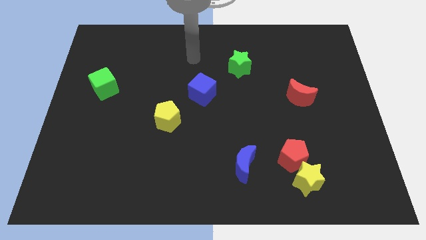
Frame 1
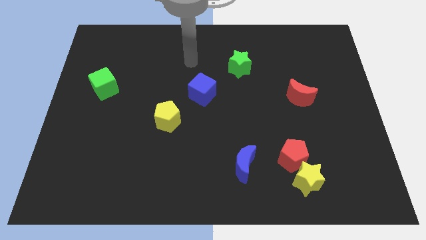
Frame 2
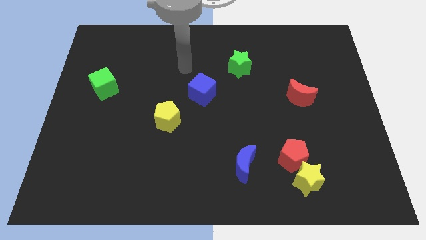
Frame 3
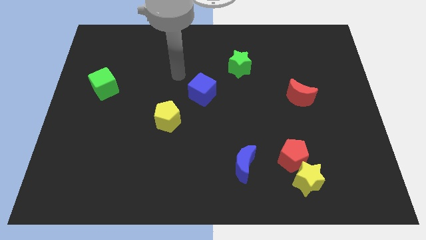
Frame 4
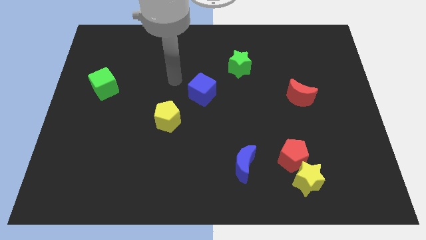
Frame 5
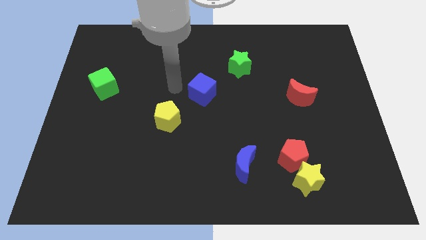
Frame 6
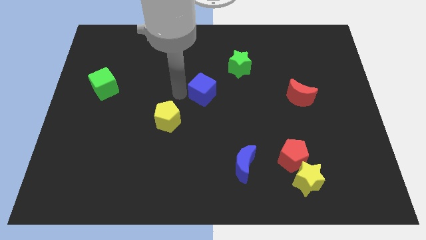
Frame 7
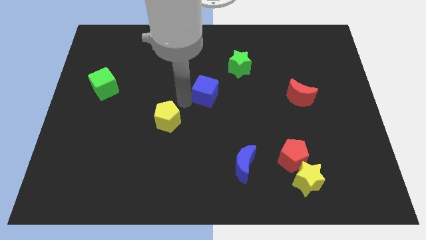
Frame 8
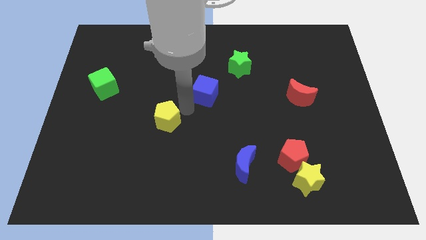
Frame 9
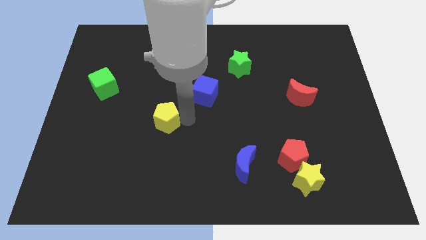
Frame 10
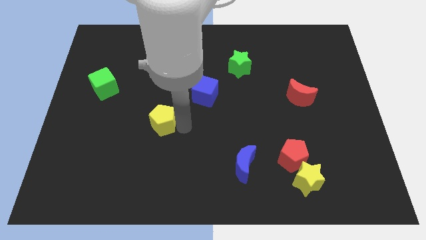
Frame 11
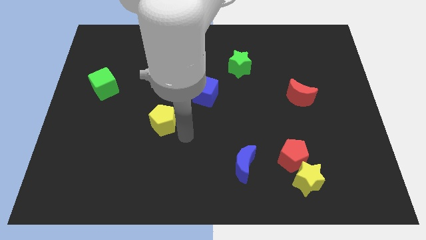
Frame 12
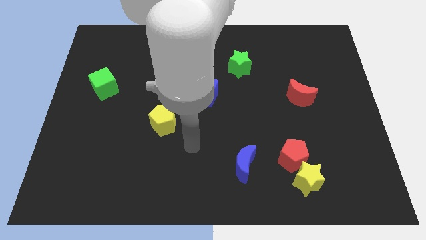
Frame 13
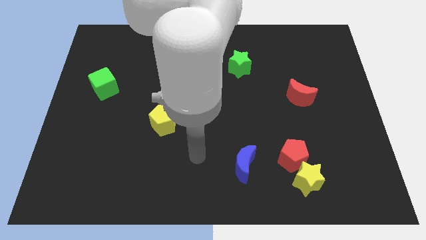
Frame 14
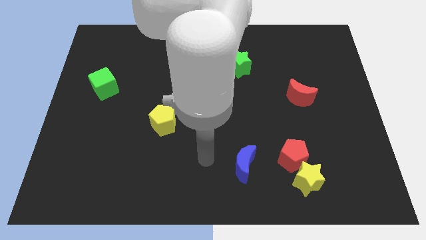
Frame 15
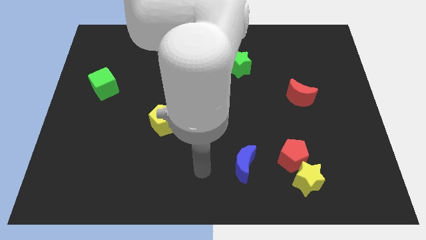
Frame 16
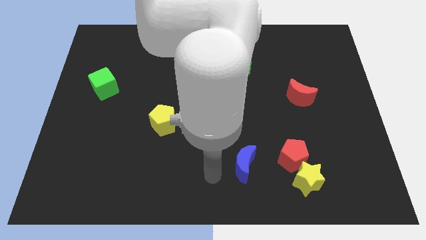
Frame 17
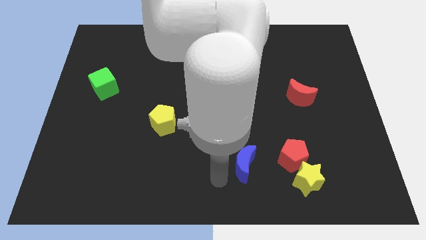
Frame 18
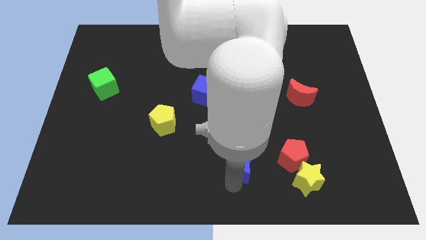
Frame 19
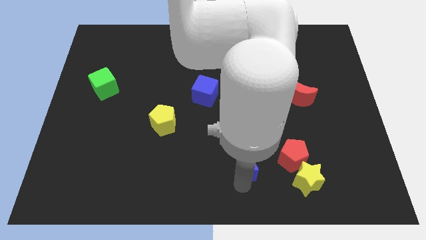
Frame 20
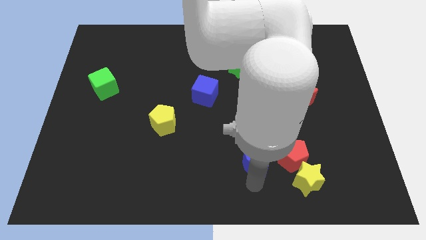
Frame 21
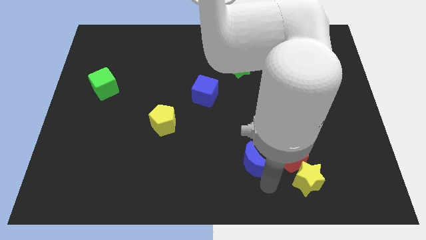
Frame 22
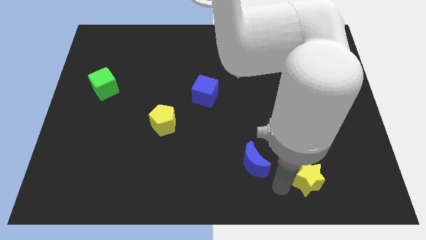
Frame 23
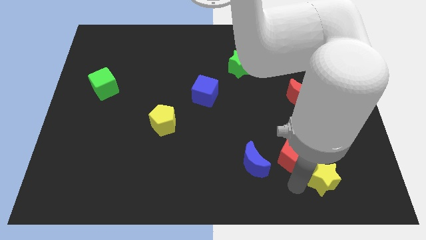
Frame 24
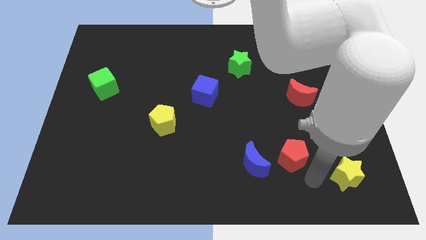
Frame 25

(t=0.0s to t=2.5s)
move the red pentagon away from the yellow star

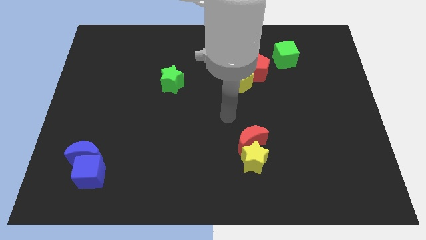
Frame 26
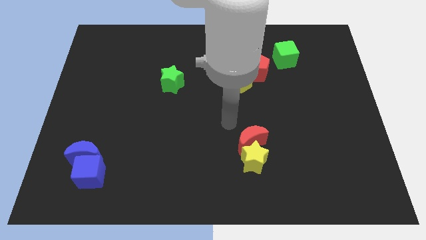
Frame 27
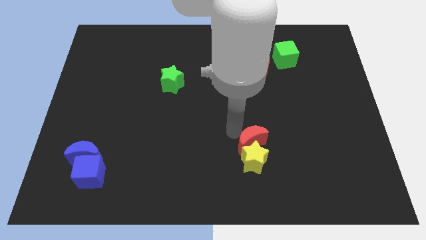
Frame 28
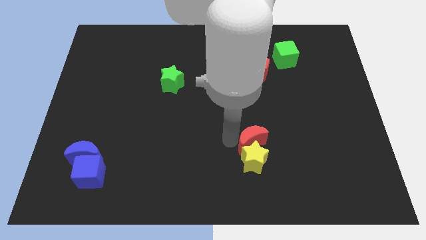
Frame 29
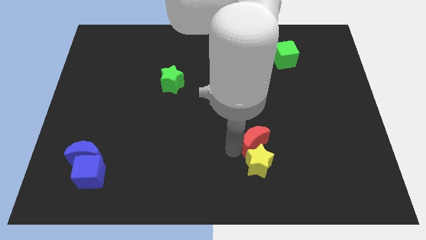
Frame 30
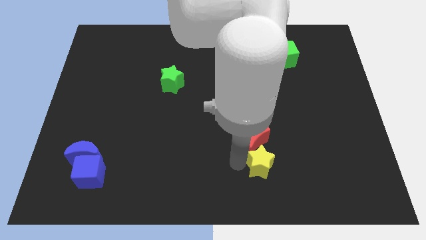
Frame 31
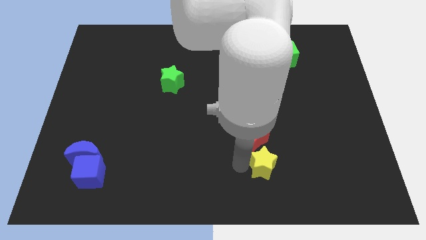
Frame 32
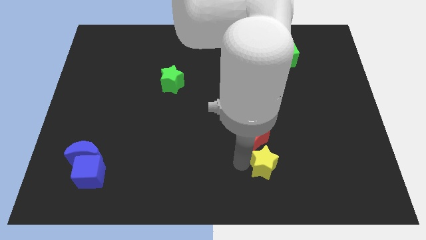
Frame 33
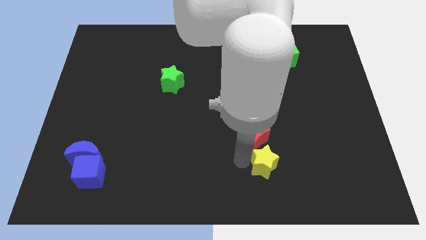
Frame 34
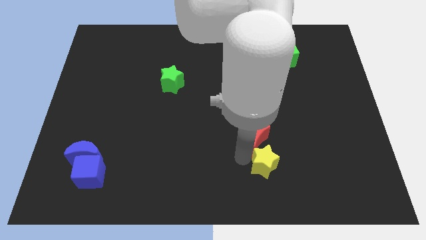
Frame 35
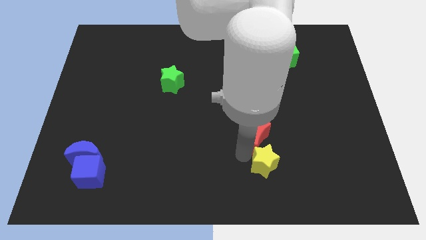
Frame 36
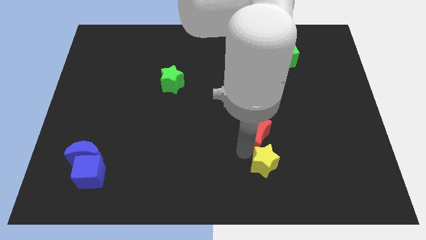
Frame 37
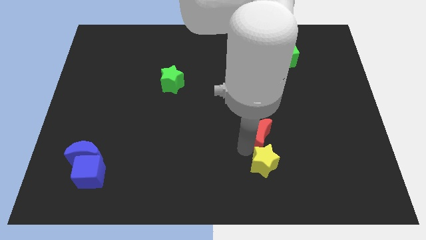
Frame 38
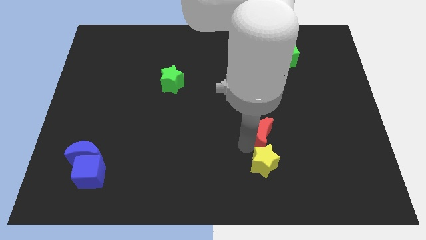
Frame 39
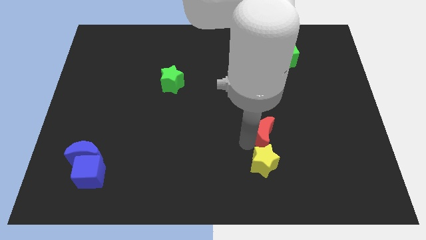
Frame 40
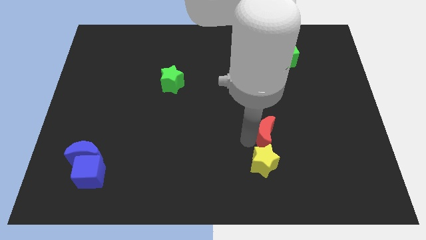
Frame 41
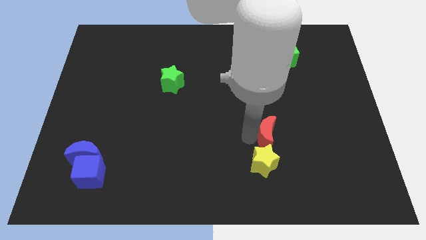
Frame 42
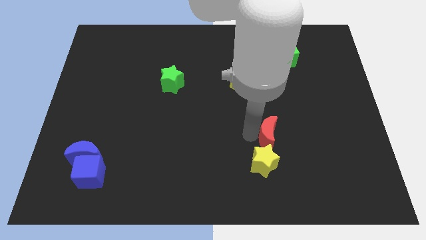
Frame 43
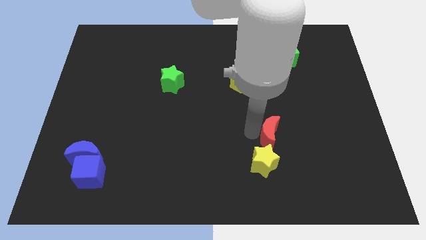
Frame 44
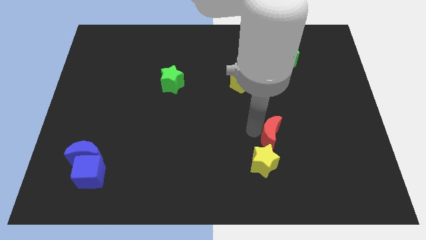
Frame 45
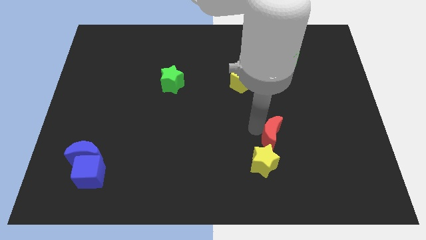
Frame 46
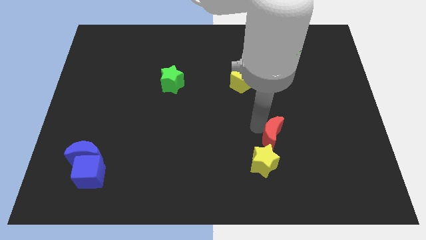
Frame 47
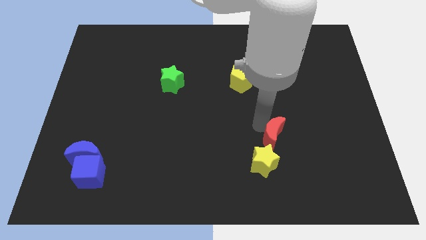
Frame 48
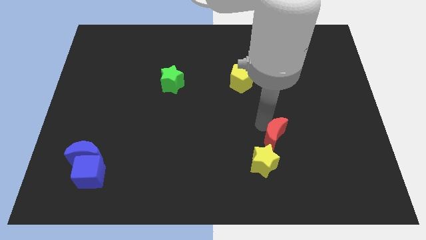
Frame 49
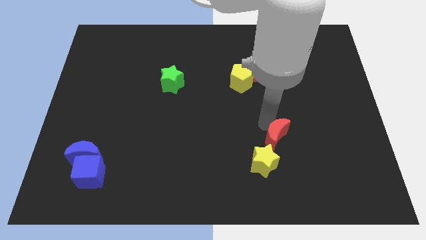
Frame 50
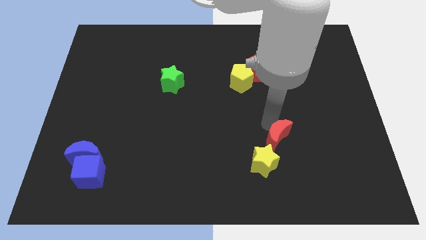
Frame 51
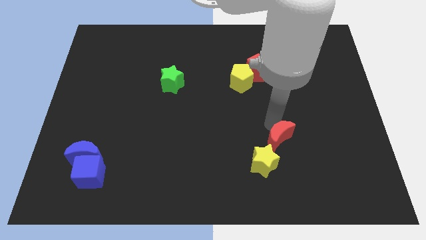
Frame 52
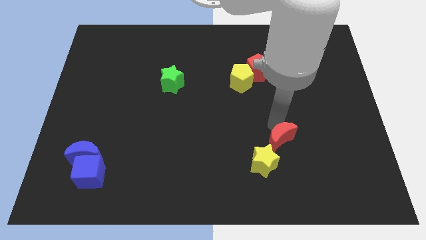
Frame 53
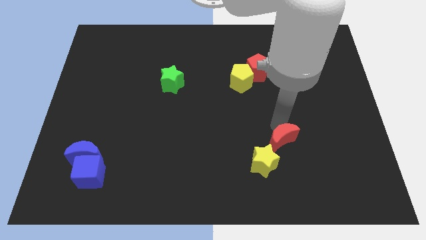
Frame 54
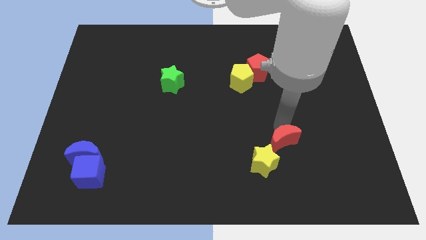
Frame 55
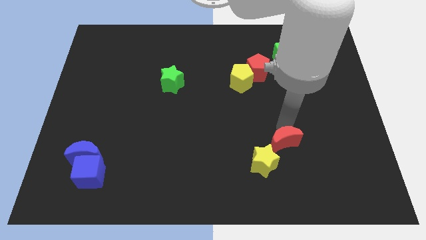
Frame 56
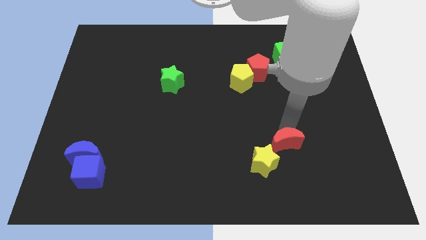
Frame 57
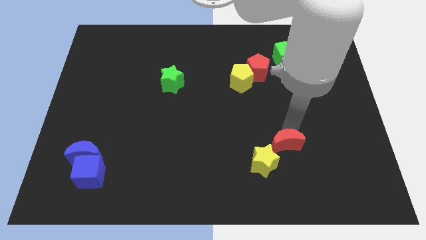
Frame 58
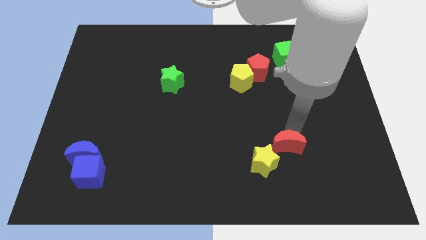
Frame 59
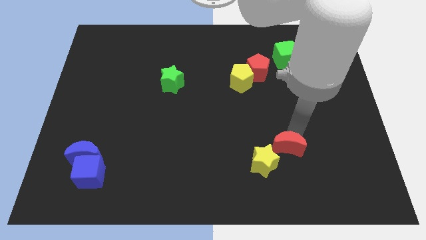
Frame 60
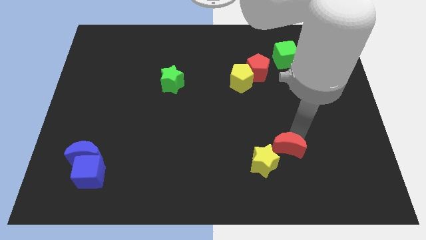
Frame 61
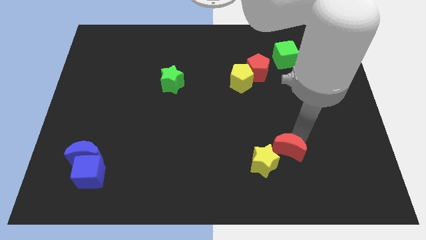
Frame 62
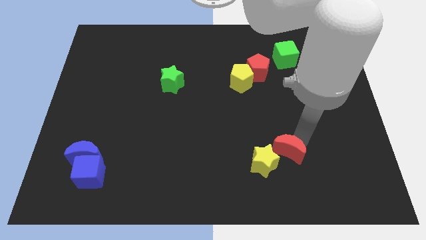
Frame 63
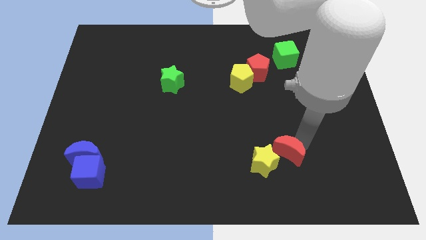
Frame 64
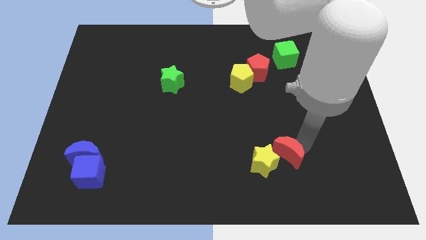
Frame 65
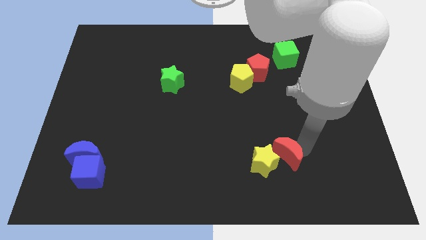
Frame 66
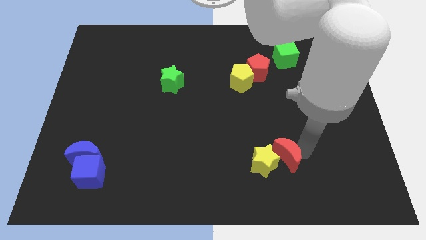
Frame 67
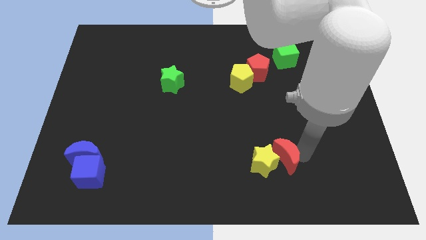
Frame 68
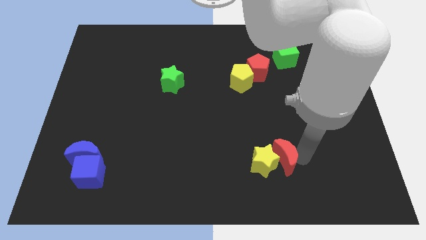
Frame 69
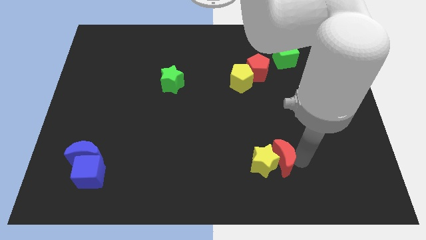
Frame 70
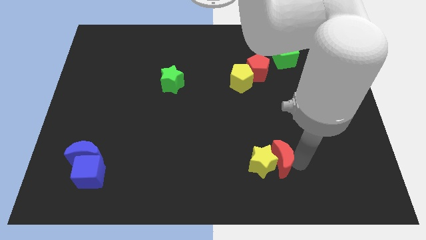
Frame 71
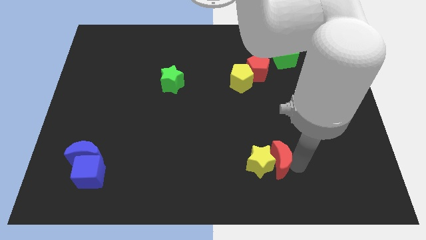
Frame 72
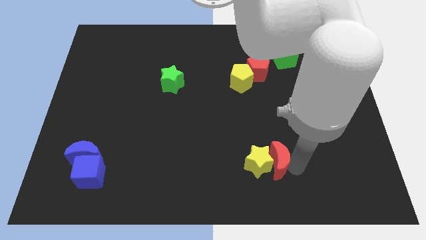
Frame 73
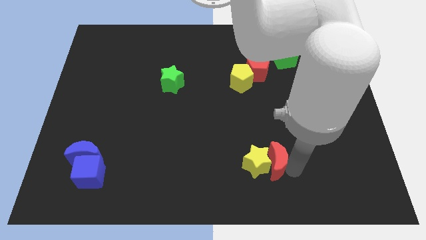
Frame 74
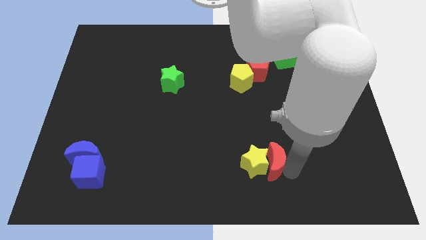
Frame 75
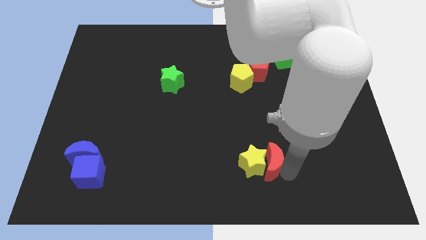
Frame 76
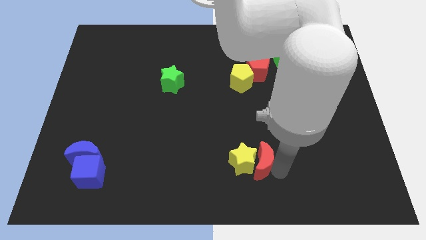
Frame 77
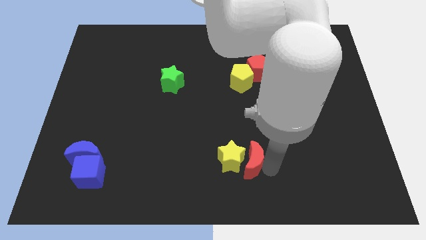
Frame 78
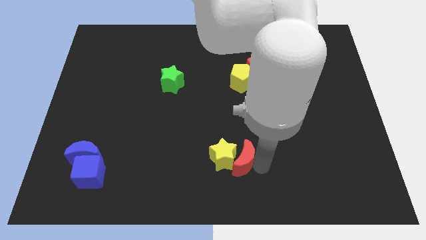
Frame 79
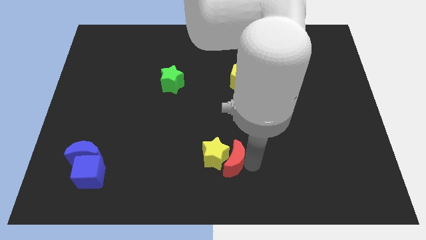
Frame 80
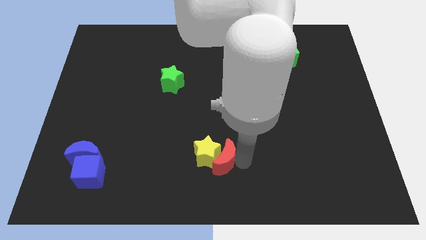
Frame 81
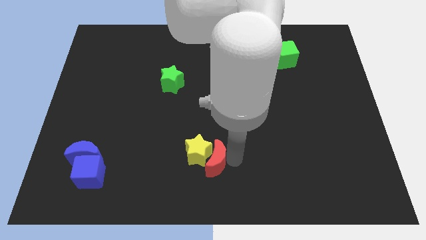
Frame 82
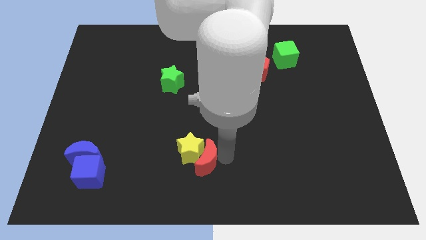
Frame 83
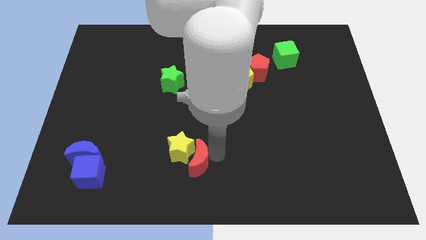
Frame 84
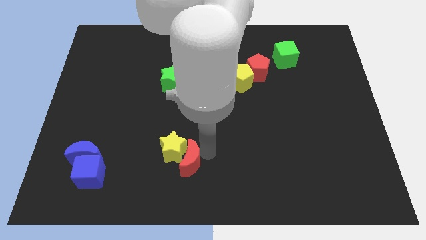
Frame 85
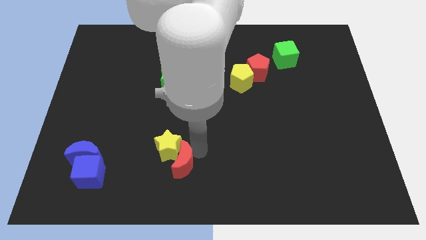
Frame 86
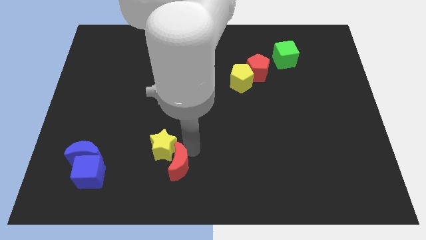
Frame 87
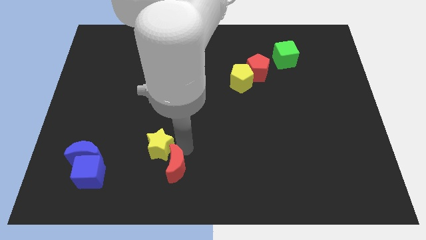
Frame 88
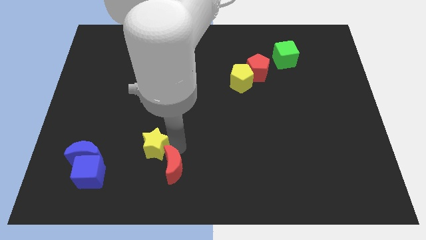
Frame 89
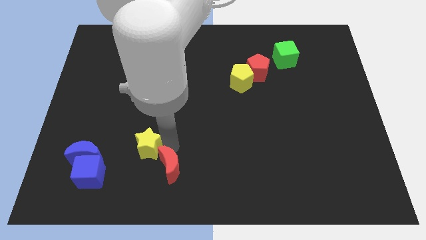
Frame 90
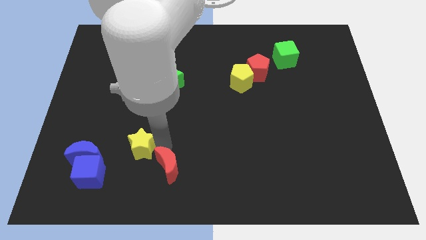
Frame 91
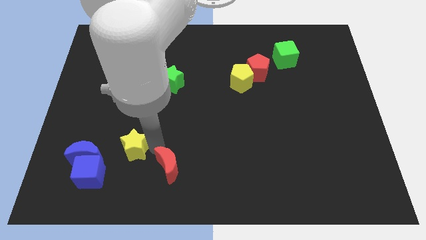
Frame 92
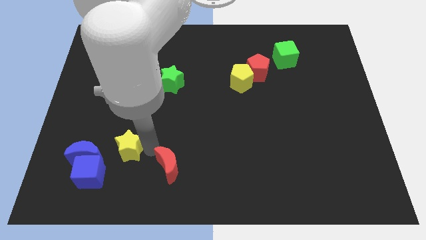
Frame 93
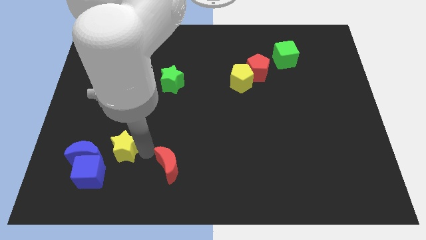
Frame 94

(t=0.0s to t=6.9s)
separate the red moon from the yellow star

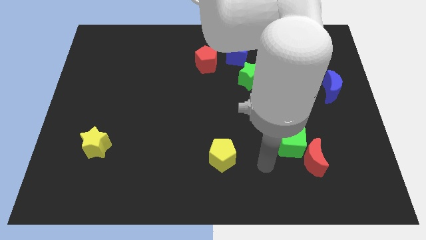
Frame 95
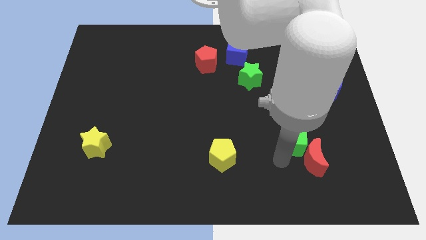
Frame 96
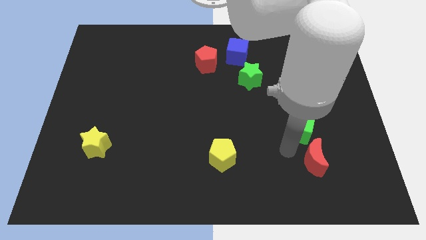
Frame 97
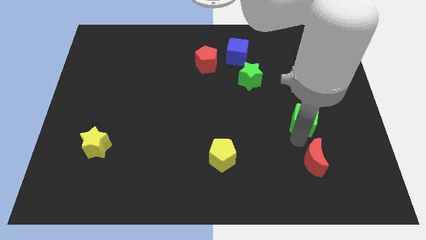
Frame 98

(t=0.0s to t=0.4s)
move the red moon away from the green cube
